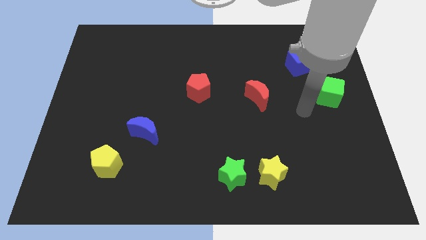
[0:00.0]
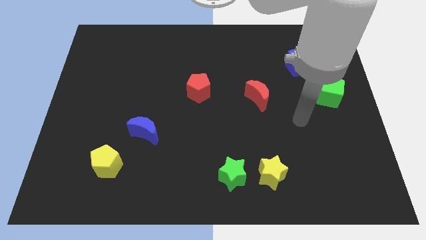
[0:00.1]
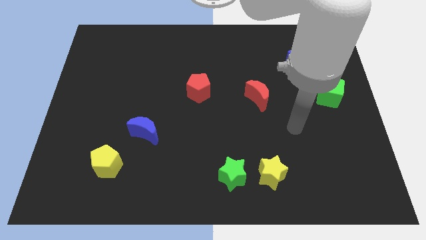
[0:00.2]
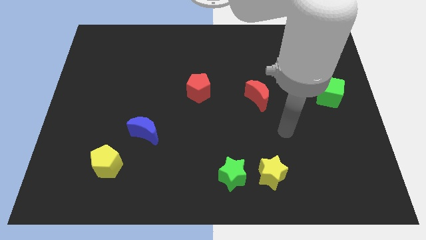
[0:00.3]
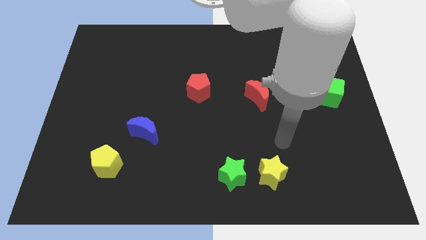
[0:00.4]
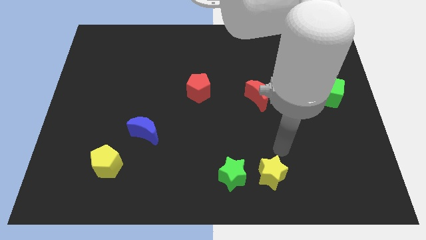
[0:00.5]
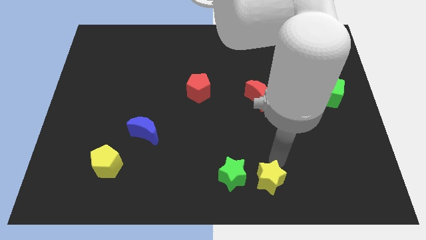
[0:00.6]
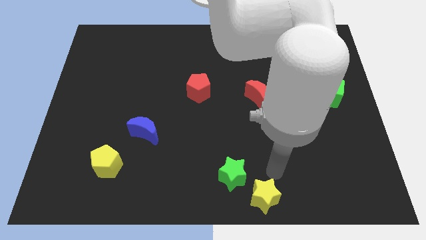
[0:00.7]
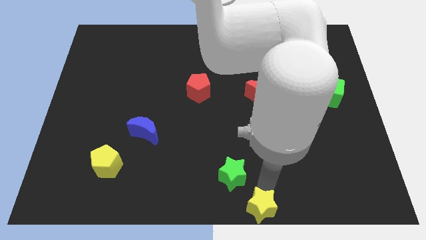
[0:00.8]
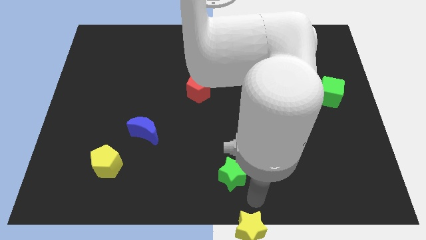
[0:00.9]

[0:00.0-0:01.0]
pull the green star apart from the yellow star

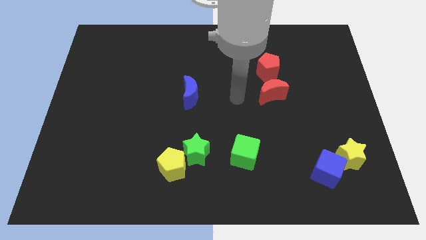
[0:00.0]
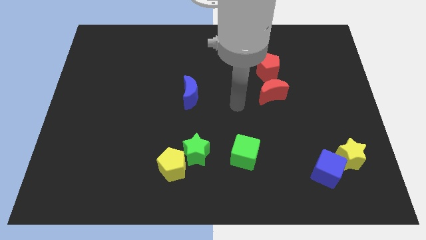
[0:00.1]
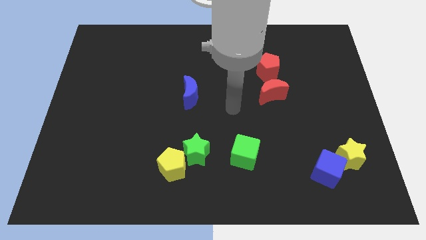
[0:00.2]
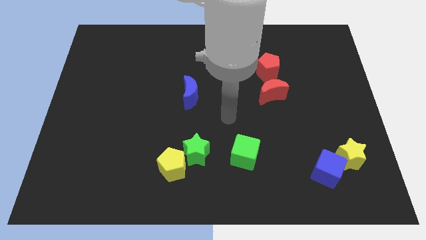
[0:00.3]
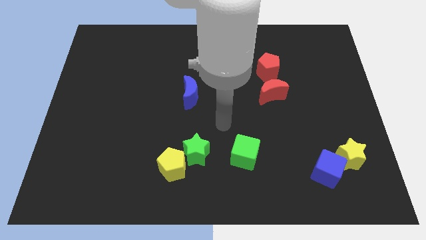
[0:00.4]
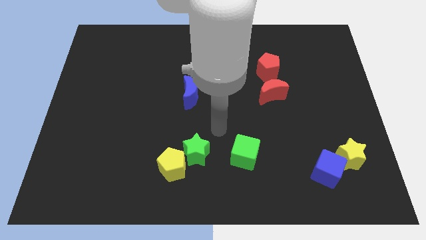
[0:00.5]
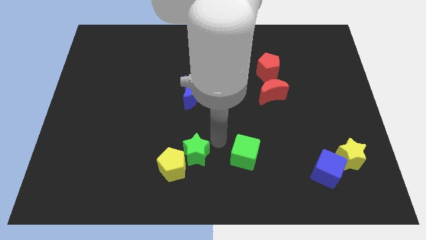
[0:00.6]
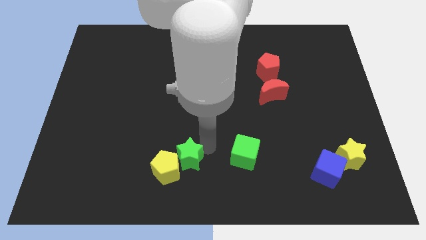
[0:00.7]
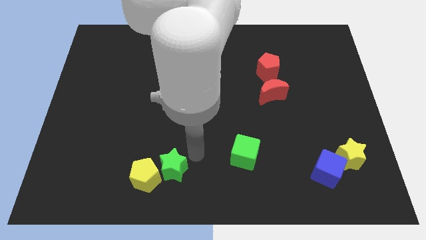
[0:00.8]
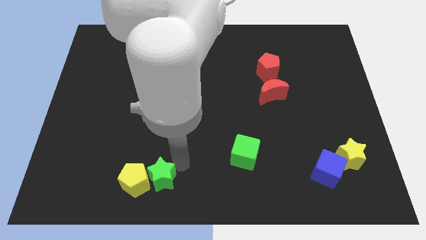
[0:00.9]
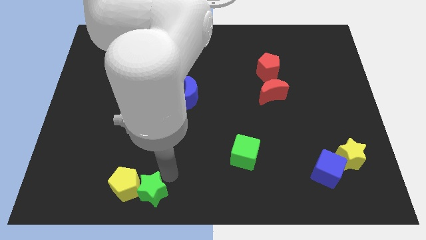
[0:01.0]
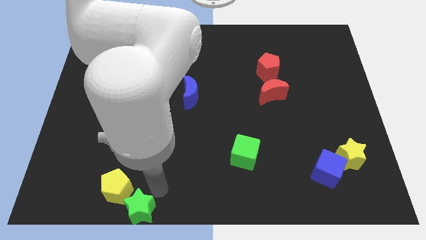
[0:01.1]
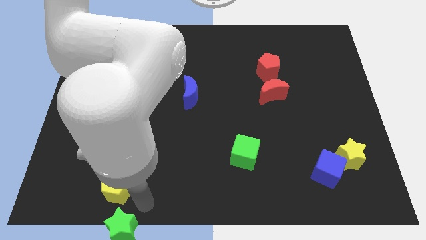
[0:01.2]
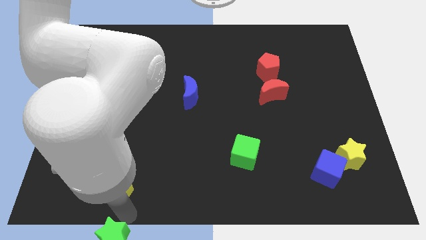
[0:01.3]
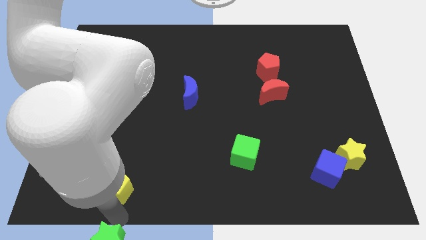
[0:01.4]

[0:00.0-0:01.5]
move the yellow pentagon away from the green star

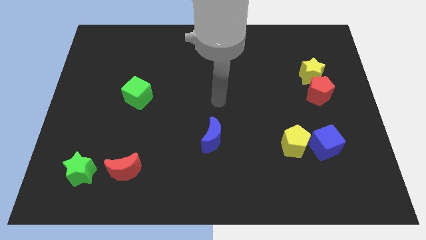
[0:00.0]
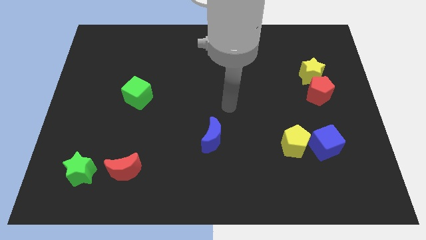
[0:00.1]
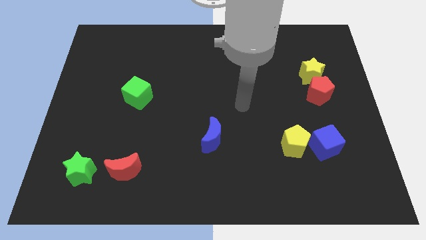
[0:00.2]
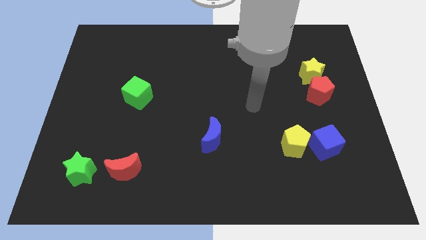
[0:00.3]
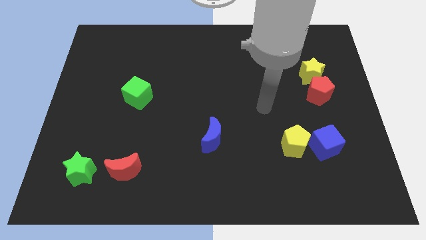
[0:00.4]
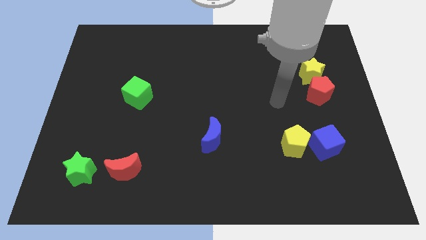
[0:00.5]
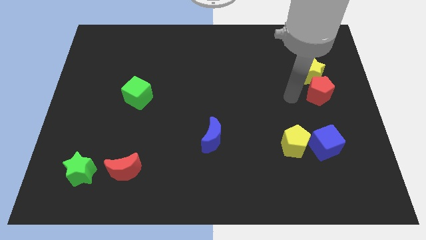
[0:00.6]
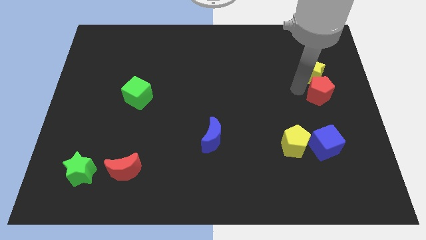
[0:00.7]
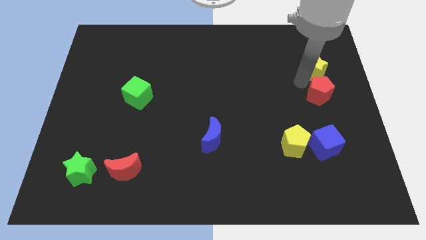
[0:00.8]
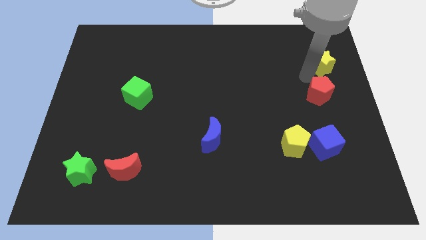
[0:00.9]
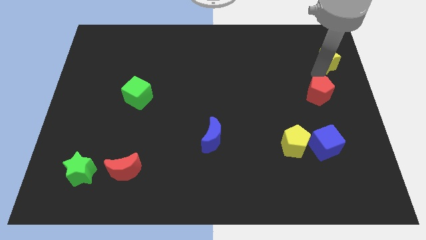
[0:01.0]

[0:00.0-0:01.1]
move the red pentagon away from the yellow star

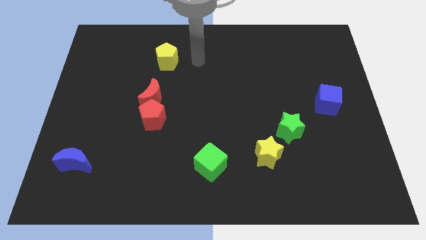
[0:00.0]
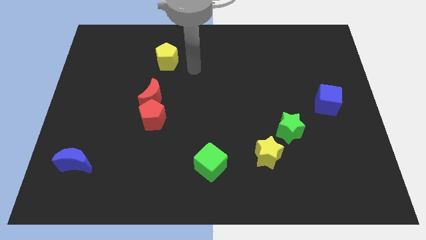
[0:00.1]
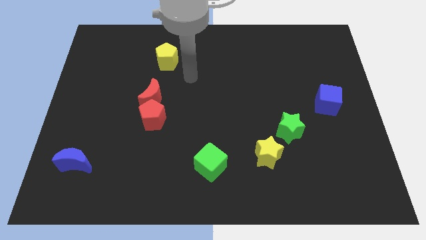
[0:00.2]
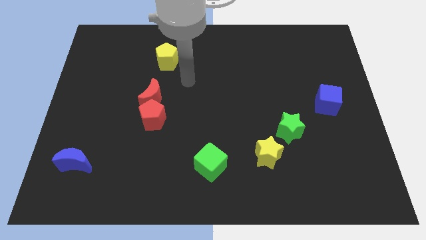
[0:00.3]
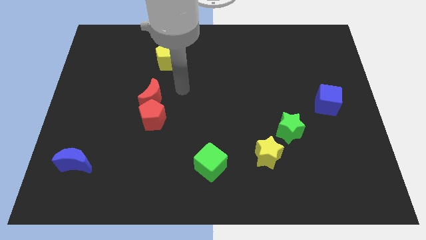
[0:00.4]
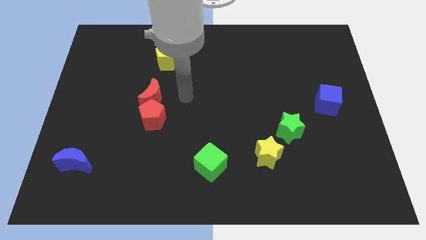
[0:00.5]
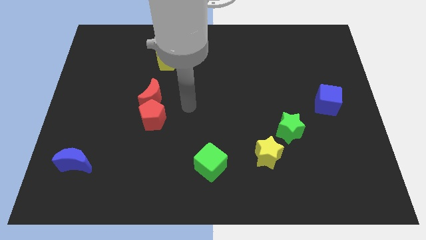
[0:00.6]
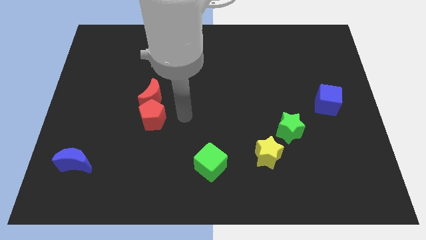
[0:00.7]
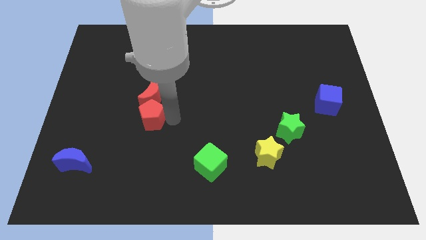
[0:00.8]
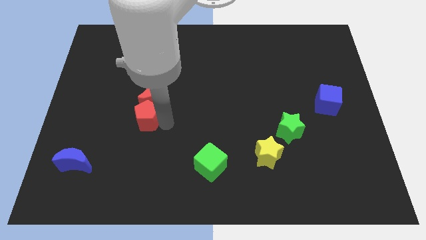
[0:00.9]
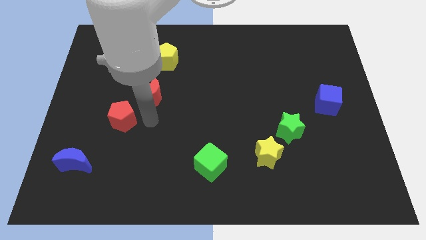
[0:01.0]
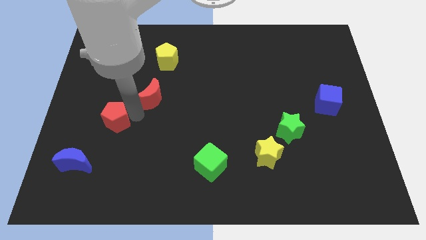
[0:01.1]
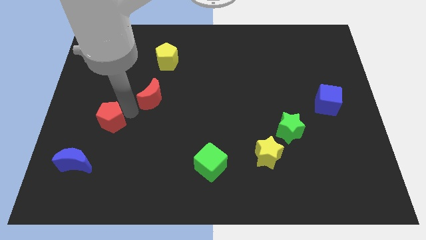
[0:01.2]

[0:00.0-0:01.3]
pull the red moon apart from the red pentagon

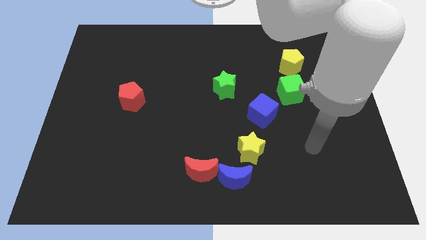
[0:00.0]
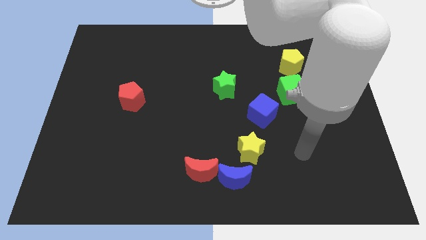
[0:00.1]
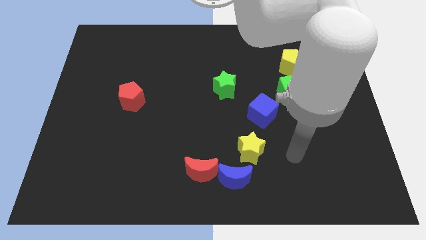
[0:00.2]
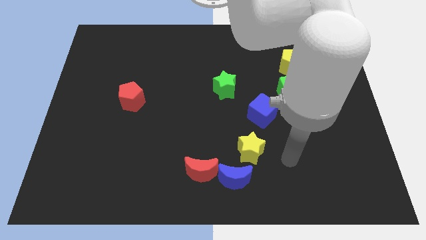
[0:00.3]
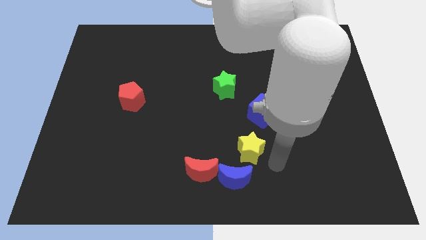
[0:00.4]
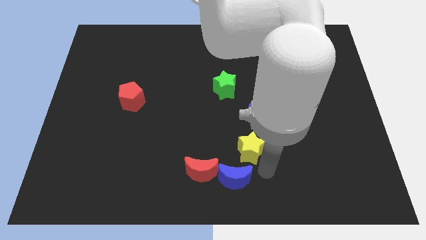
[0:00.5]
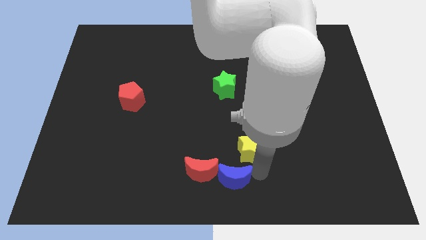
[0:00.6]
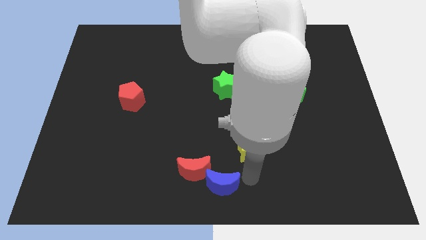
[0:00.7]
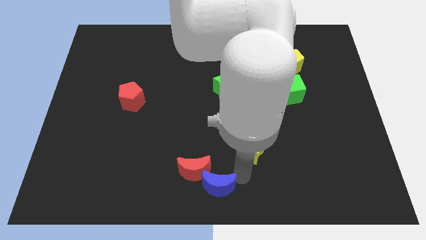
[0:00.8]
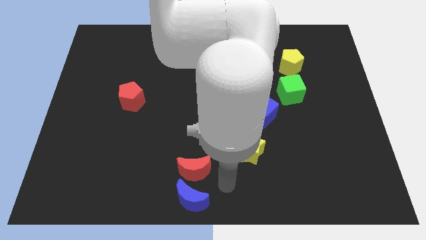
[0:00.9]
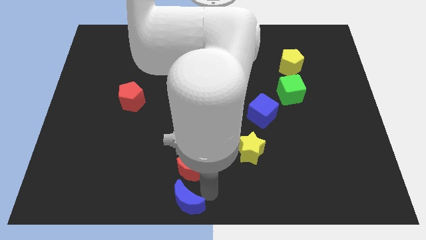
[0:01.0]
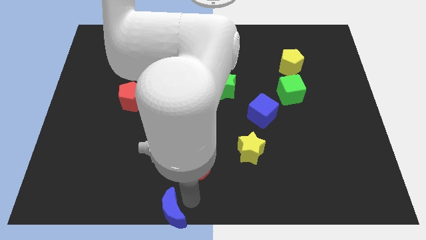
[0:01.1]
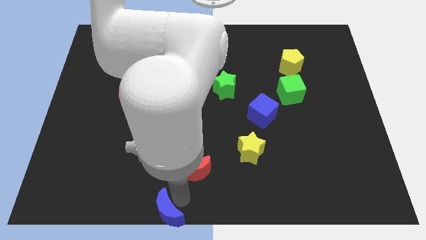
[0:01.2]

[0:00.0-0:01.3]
move the red moon away from the blue moon

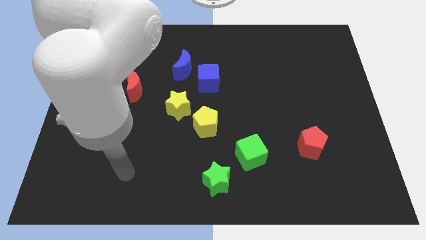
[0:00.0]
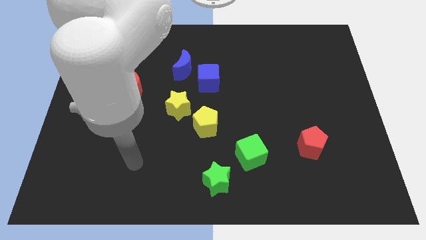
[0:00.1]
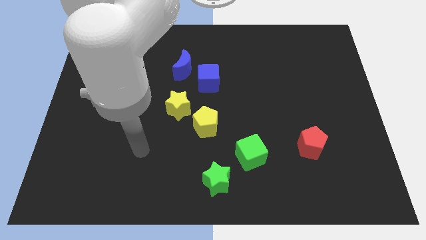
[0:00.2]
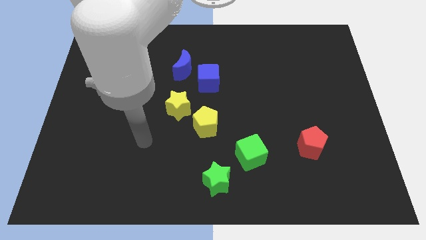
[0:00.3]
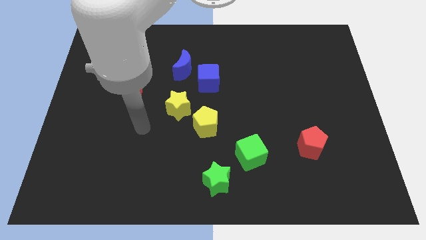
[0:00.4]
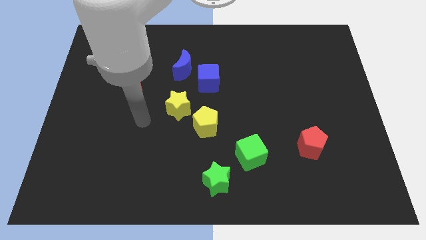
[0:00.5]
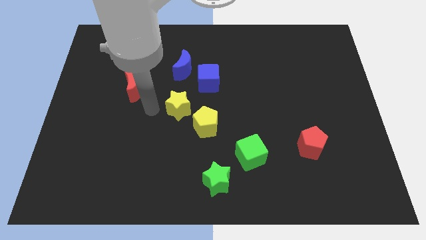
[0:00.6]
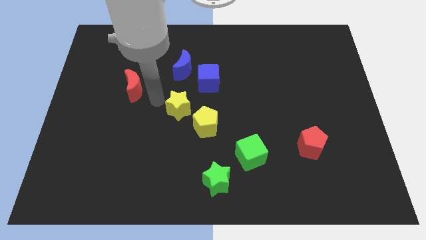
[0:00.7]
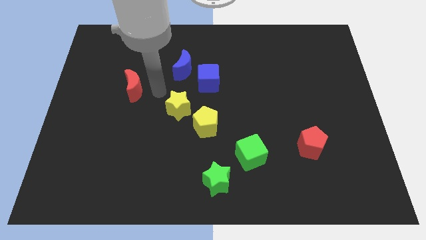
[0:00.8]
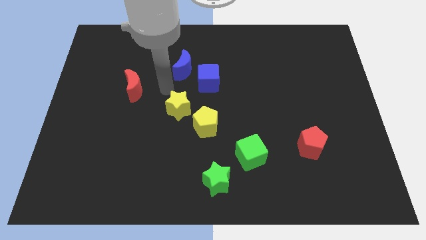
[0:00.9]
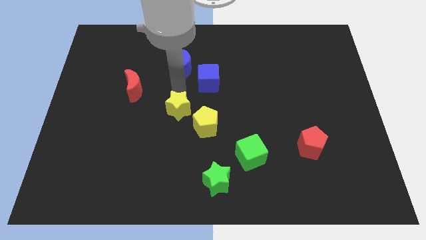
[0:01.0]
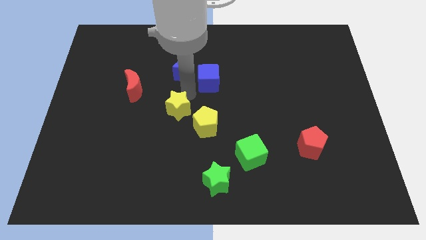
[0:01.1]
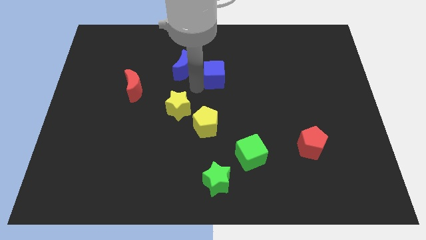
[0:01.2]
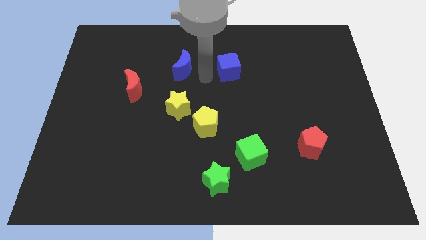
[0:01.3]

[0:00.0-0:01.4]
separate the blue moon from the blue cube

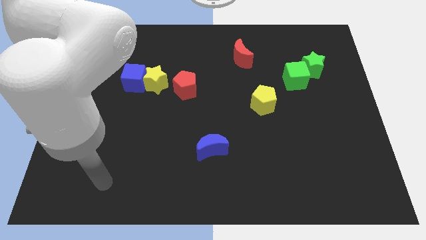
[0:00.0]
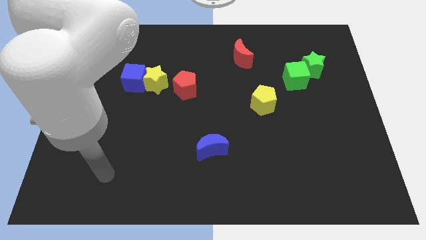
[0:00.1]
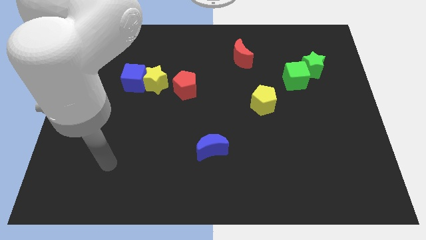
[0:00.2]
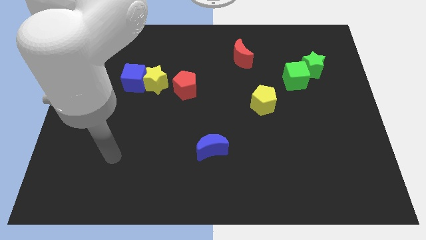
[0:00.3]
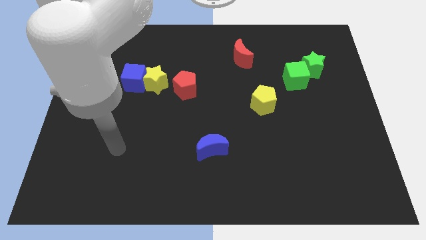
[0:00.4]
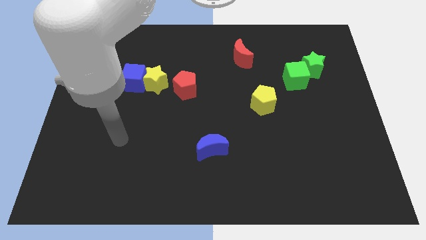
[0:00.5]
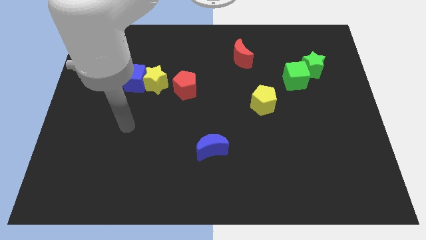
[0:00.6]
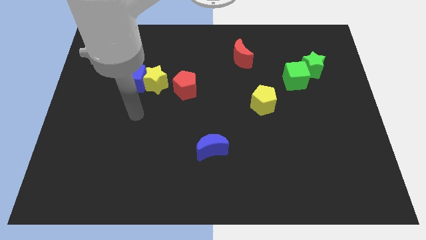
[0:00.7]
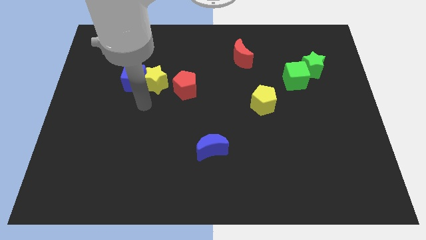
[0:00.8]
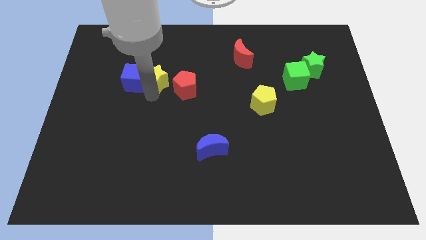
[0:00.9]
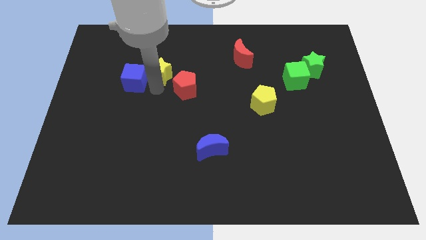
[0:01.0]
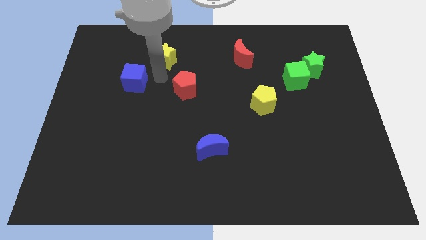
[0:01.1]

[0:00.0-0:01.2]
move the blue cube away from the yellow star

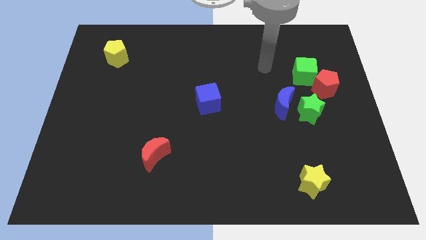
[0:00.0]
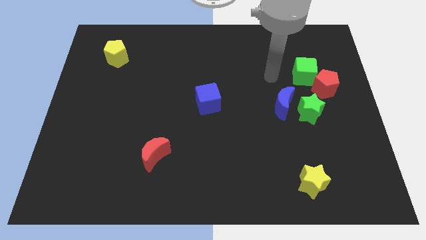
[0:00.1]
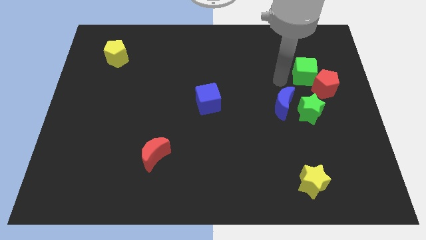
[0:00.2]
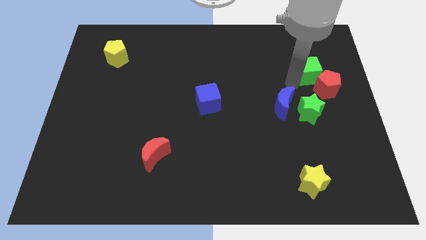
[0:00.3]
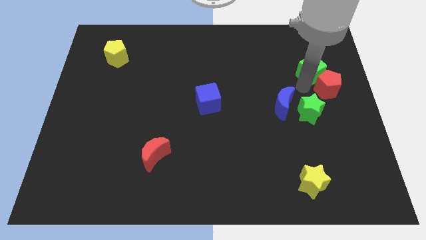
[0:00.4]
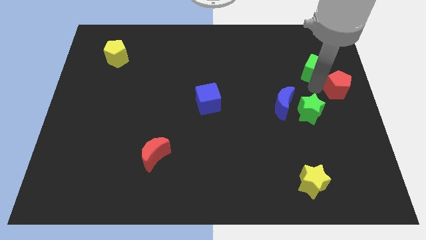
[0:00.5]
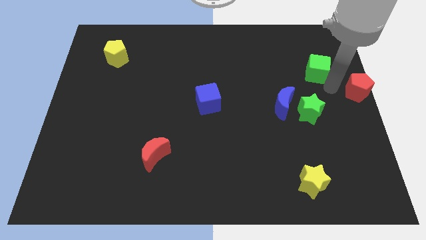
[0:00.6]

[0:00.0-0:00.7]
move the green cube away from the red pentagon
